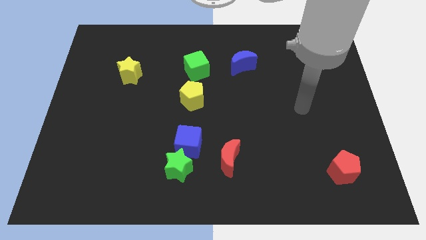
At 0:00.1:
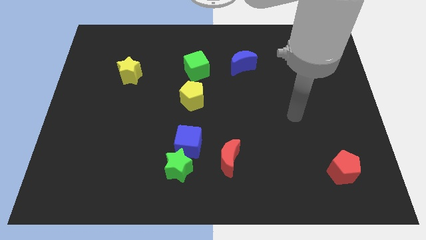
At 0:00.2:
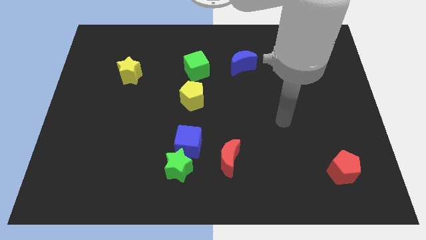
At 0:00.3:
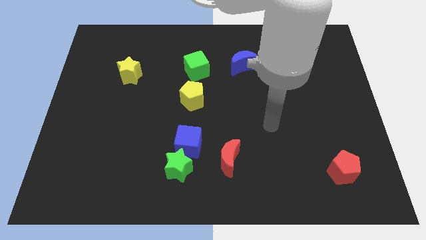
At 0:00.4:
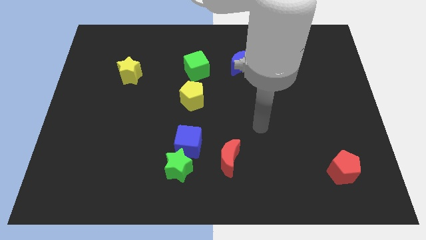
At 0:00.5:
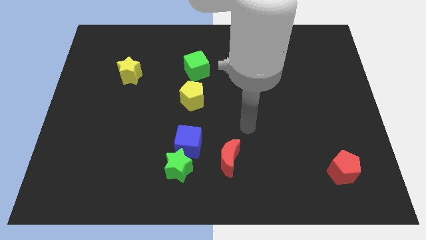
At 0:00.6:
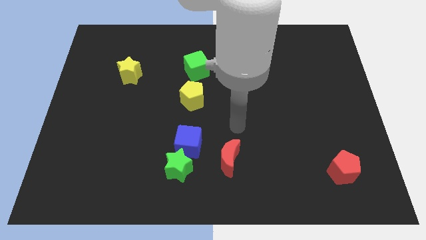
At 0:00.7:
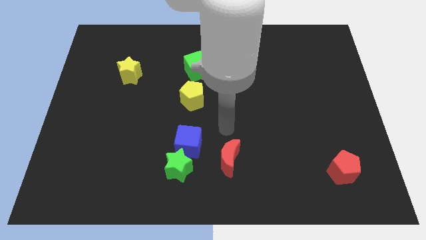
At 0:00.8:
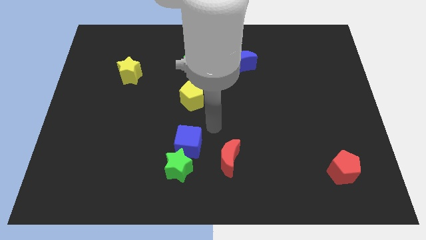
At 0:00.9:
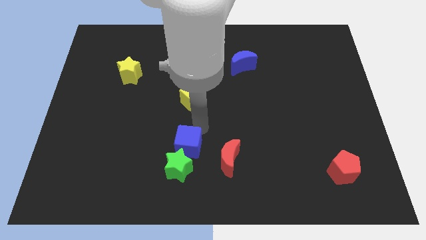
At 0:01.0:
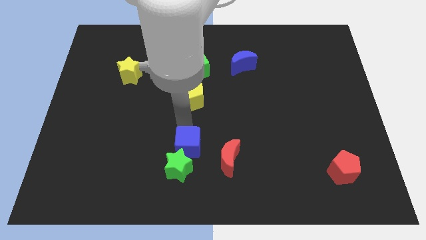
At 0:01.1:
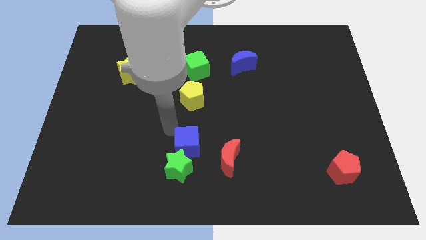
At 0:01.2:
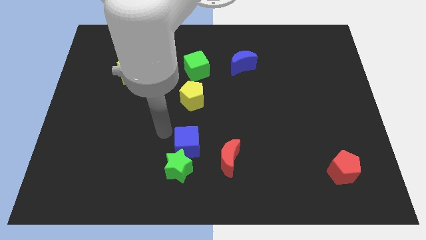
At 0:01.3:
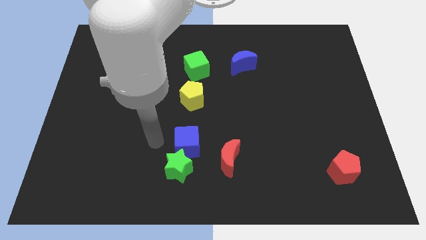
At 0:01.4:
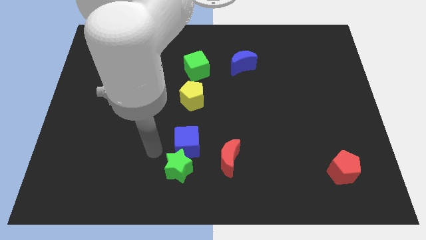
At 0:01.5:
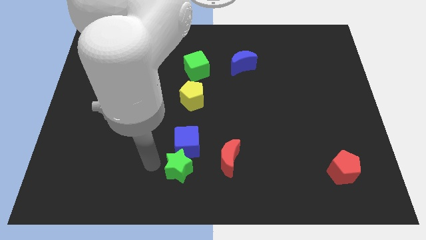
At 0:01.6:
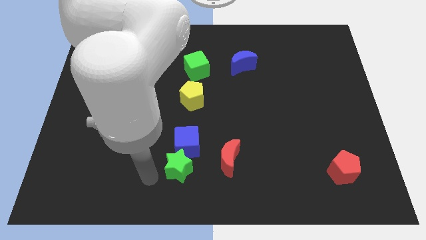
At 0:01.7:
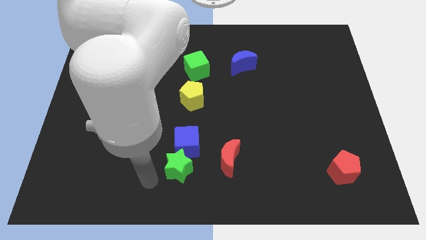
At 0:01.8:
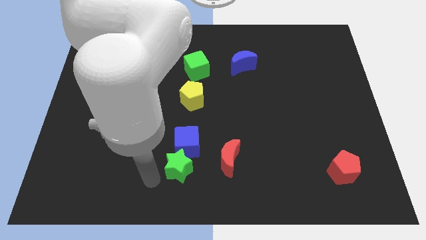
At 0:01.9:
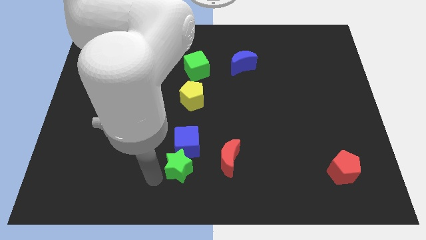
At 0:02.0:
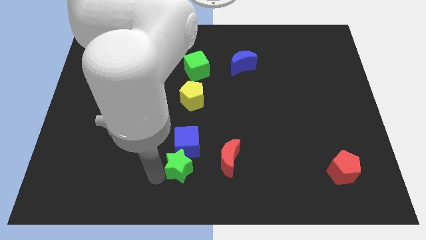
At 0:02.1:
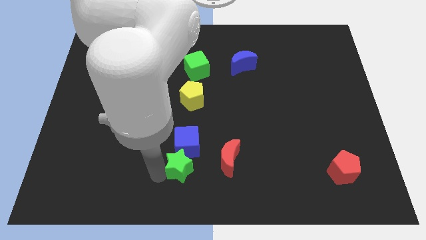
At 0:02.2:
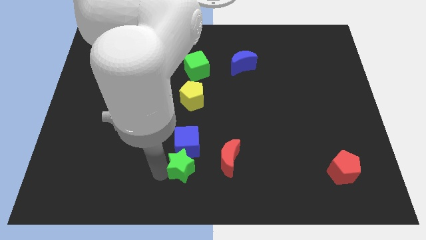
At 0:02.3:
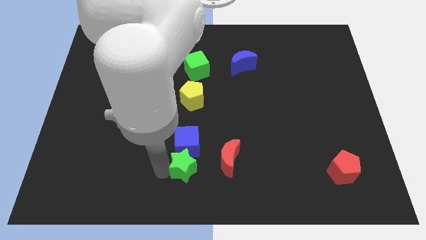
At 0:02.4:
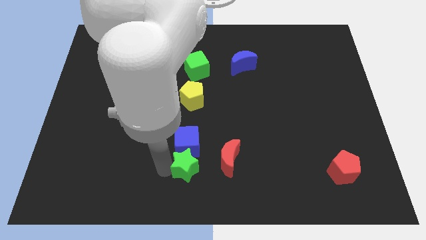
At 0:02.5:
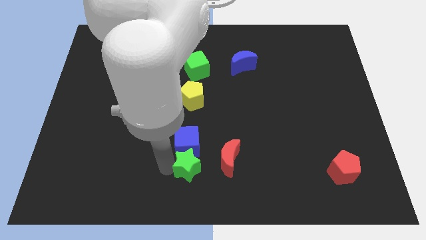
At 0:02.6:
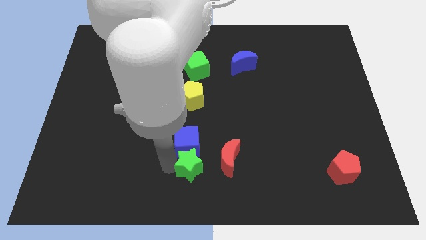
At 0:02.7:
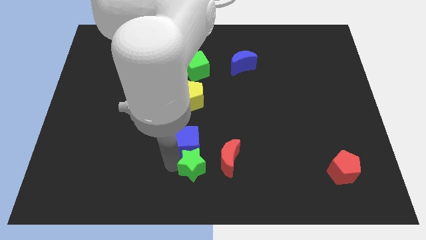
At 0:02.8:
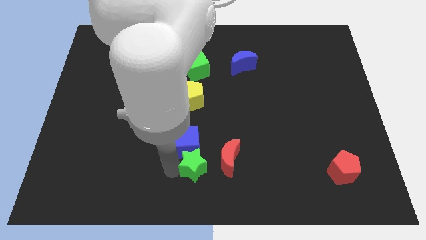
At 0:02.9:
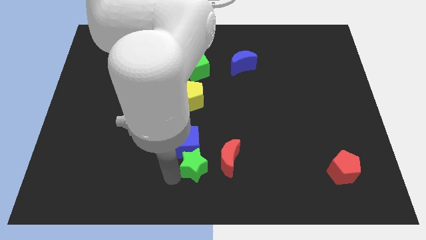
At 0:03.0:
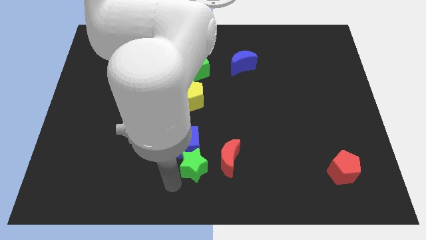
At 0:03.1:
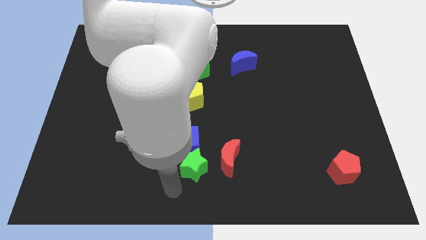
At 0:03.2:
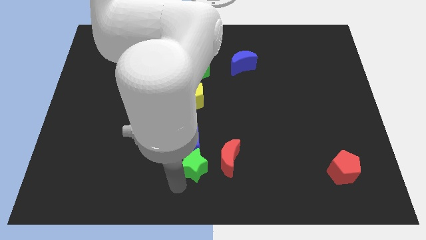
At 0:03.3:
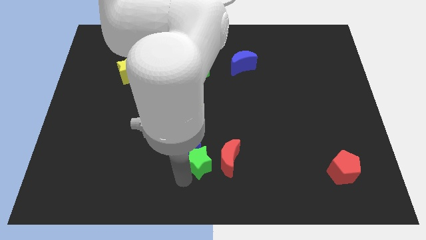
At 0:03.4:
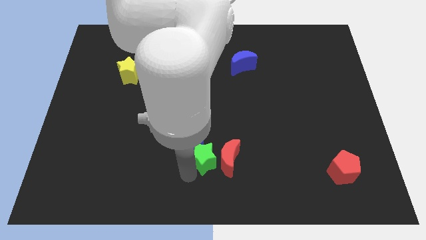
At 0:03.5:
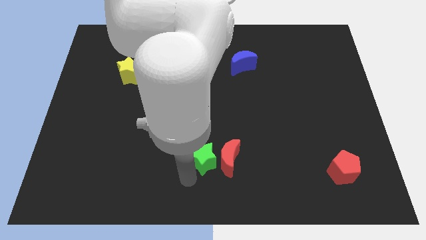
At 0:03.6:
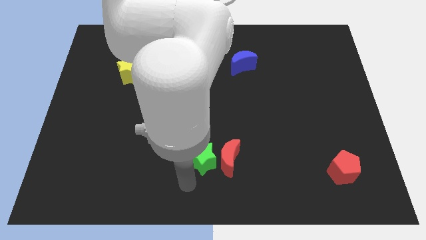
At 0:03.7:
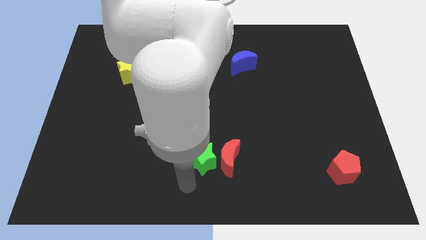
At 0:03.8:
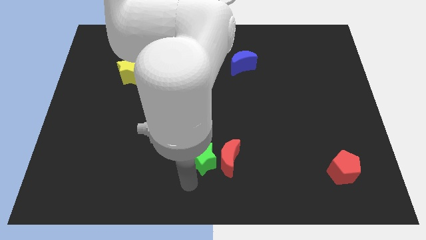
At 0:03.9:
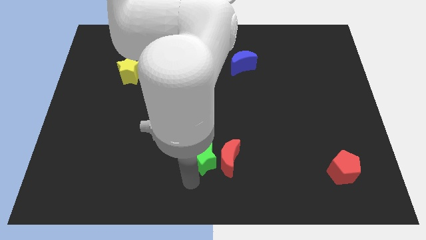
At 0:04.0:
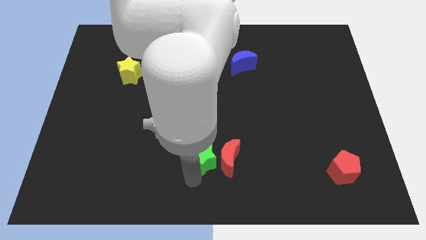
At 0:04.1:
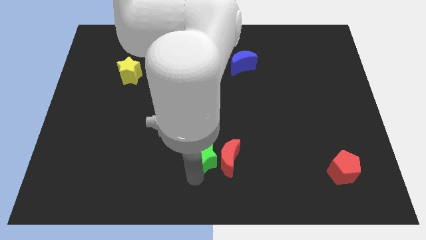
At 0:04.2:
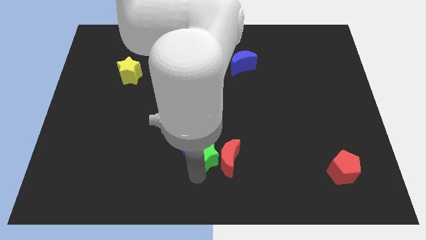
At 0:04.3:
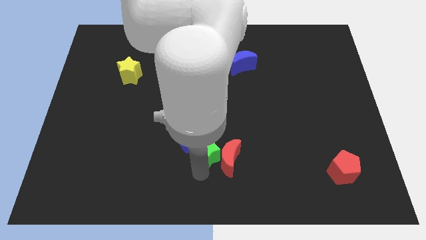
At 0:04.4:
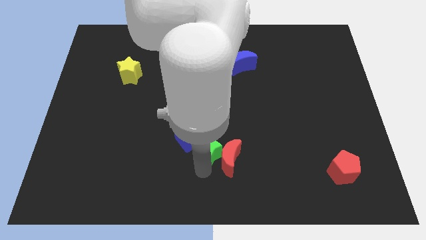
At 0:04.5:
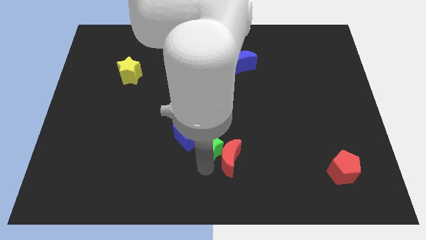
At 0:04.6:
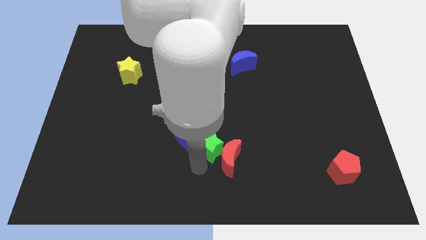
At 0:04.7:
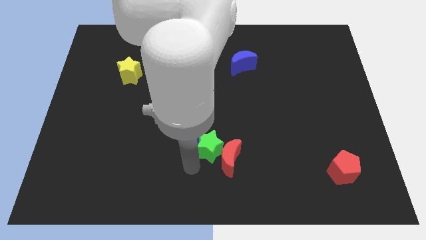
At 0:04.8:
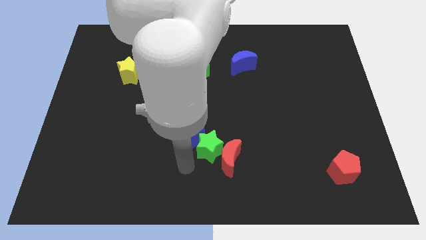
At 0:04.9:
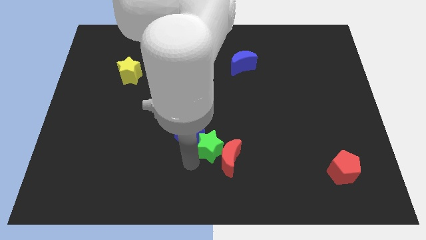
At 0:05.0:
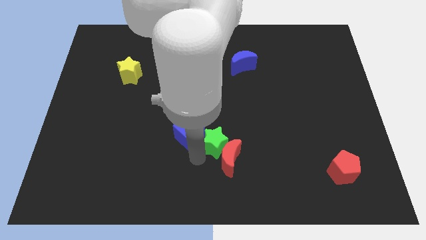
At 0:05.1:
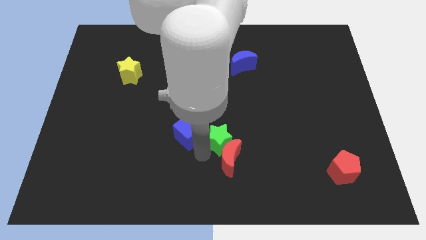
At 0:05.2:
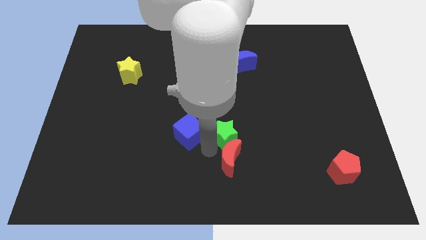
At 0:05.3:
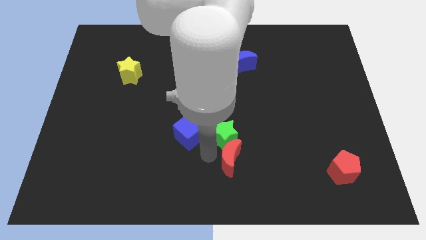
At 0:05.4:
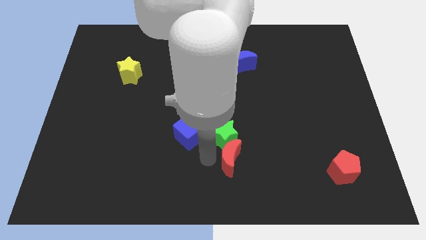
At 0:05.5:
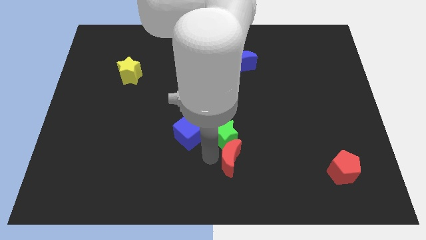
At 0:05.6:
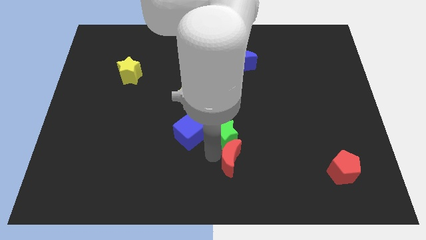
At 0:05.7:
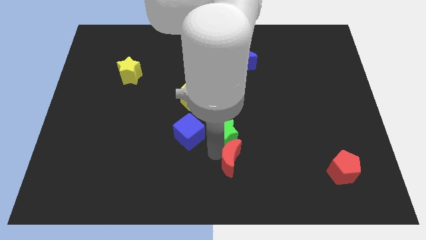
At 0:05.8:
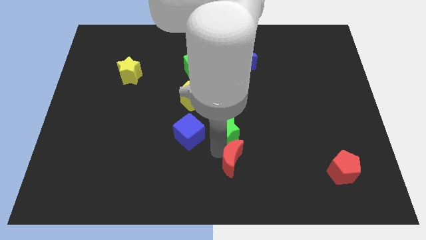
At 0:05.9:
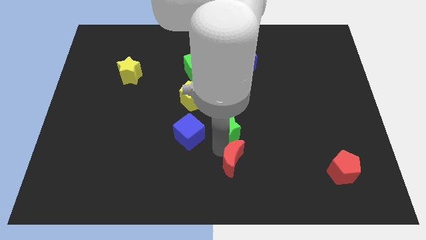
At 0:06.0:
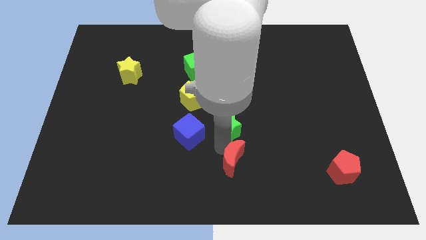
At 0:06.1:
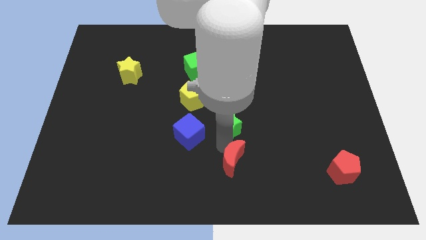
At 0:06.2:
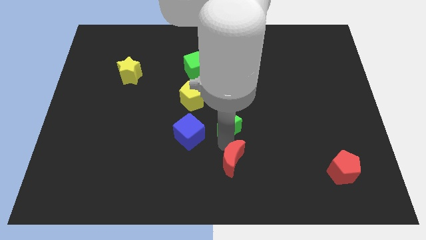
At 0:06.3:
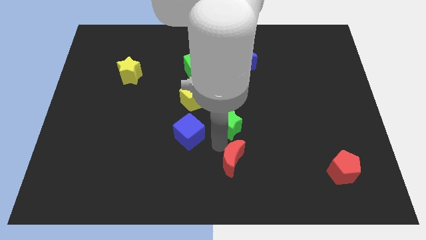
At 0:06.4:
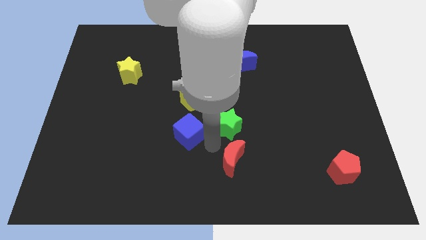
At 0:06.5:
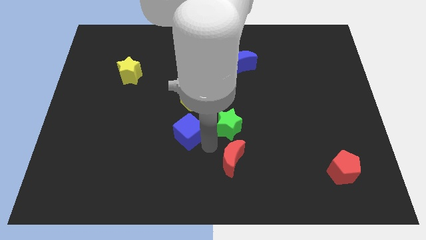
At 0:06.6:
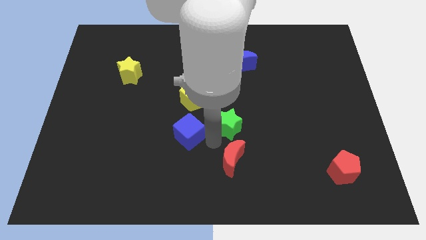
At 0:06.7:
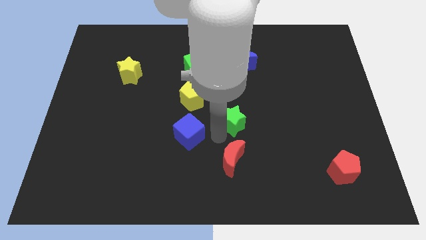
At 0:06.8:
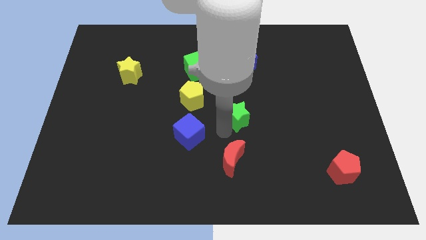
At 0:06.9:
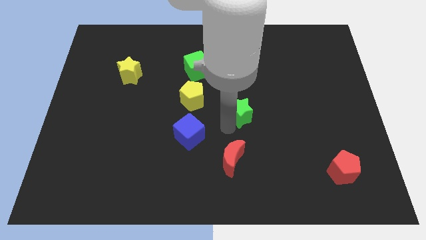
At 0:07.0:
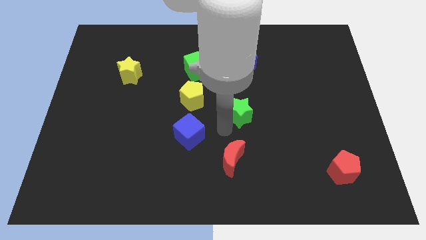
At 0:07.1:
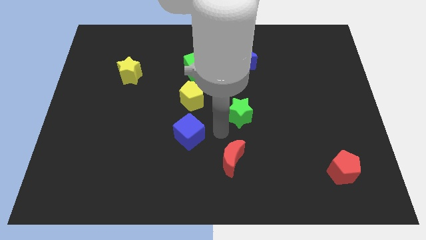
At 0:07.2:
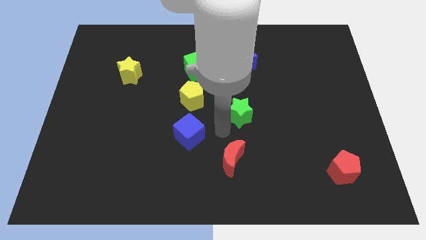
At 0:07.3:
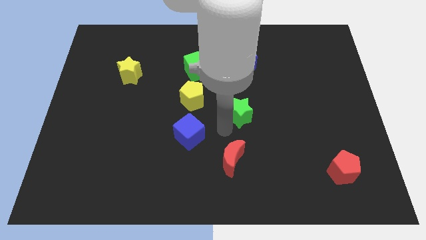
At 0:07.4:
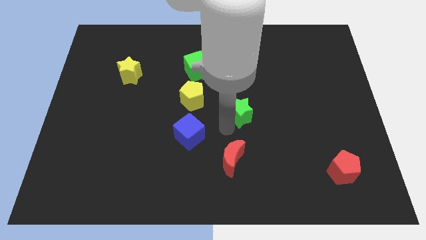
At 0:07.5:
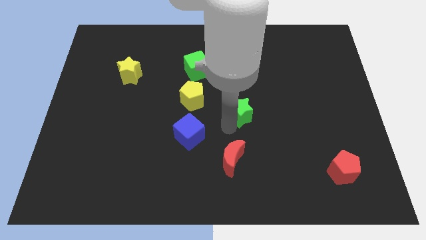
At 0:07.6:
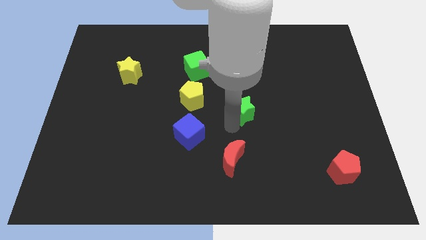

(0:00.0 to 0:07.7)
move the green star up and then to the right

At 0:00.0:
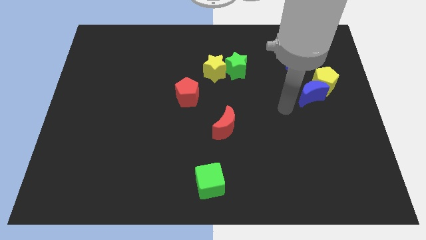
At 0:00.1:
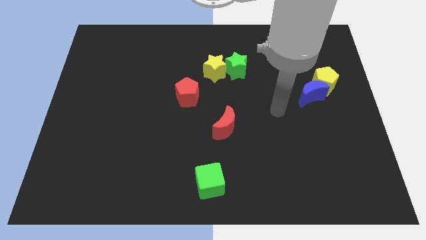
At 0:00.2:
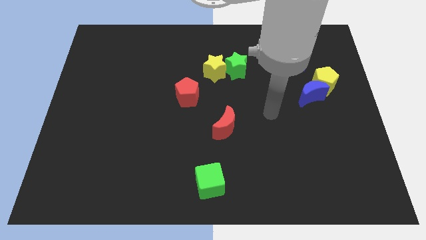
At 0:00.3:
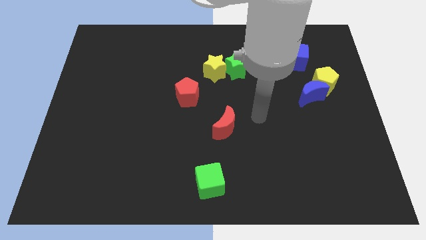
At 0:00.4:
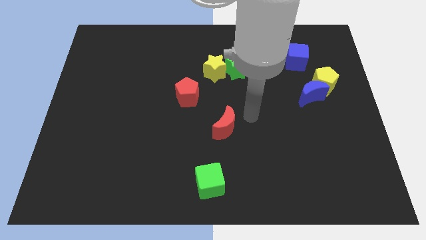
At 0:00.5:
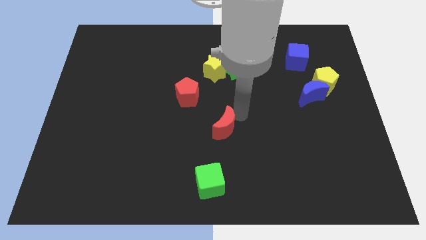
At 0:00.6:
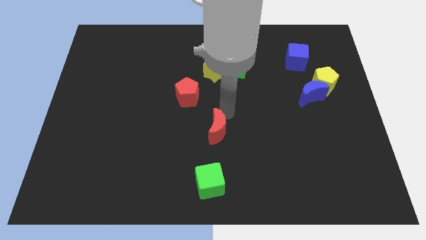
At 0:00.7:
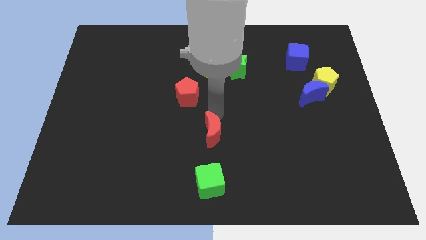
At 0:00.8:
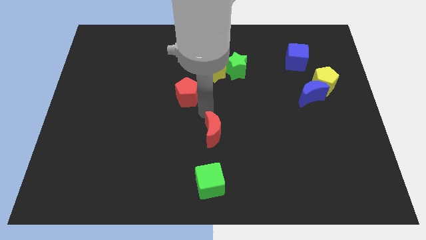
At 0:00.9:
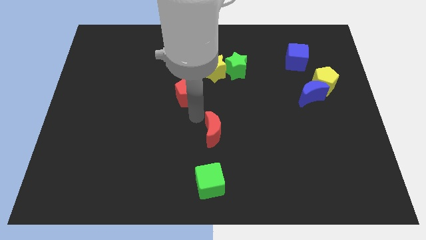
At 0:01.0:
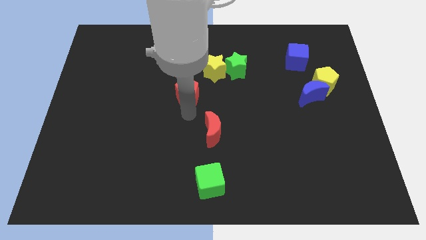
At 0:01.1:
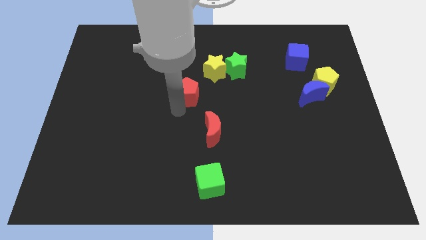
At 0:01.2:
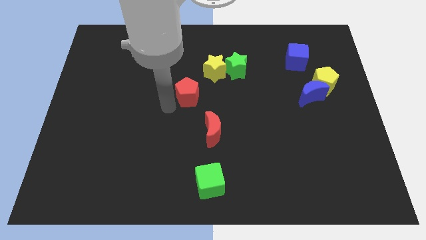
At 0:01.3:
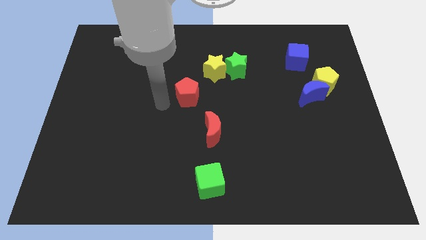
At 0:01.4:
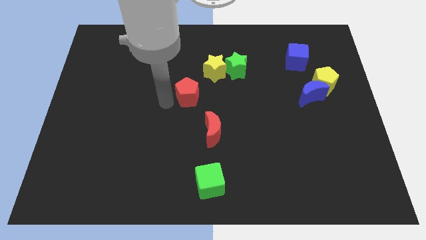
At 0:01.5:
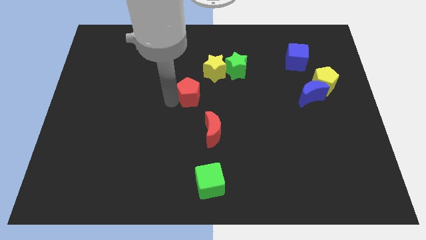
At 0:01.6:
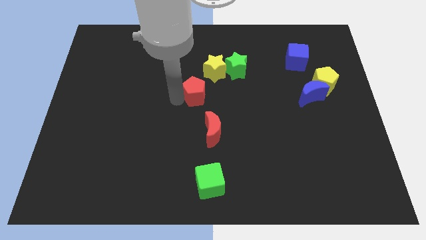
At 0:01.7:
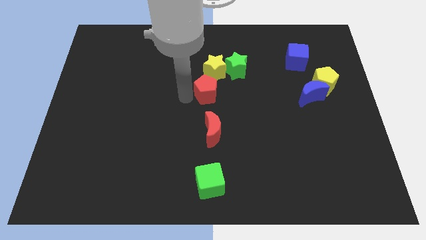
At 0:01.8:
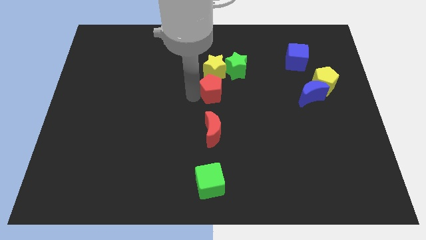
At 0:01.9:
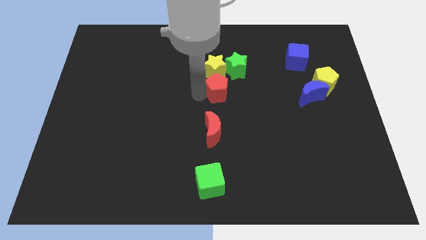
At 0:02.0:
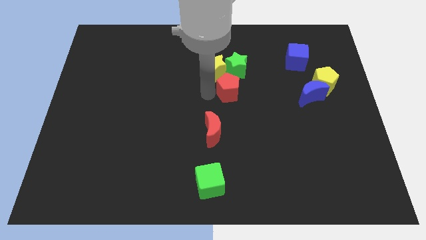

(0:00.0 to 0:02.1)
slightly move the red pentagon up and to the right diagonally
